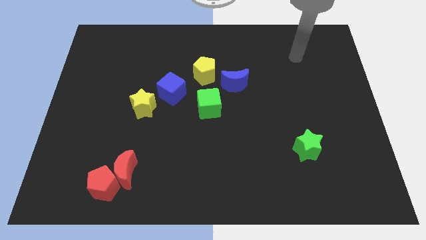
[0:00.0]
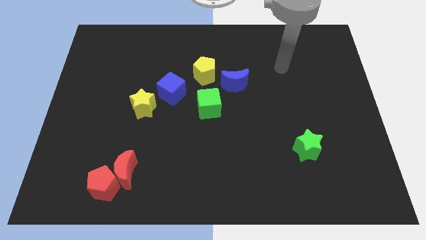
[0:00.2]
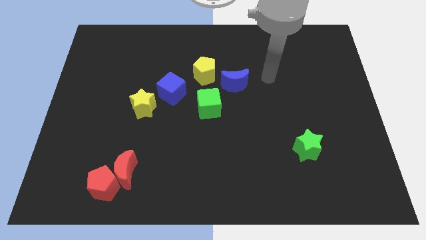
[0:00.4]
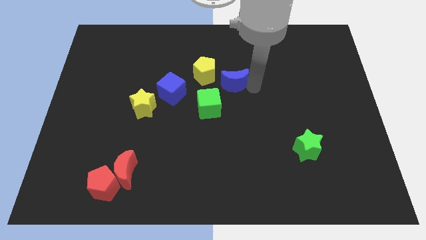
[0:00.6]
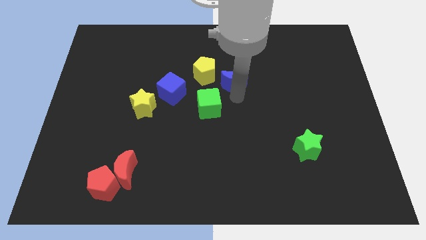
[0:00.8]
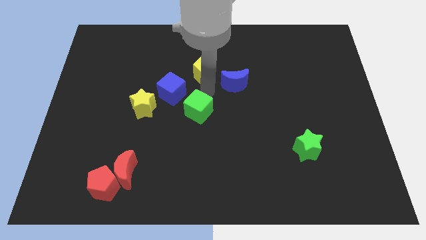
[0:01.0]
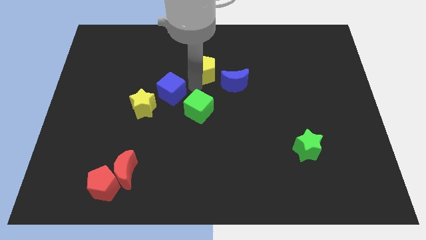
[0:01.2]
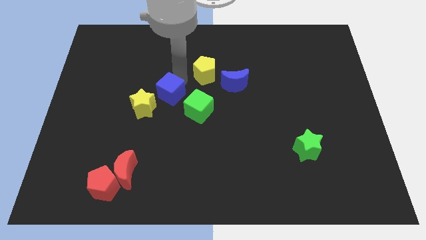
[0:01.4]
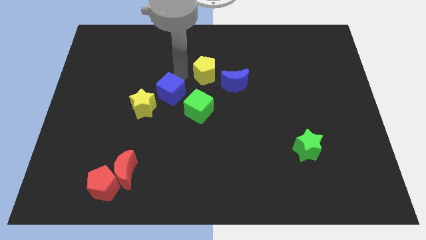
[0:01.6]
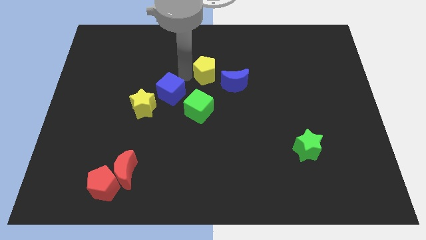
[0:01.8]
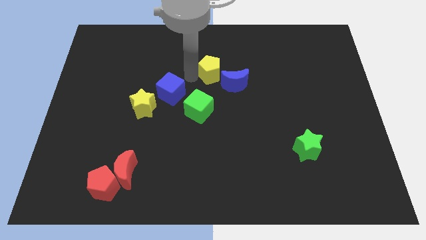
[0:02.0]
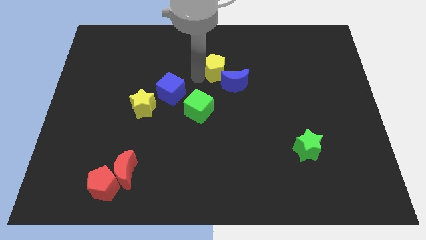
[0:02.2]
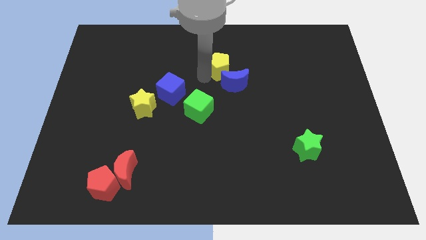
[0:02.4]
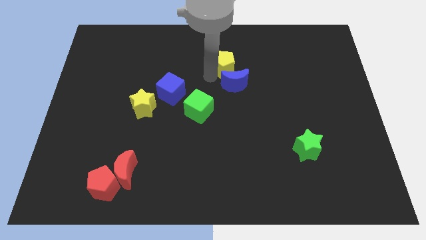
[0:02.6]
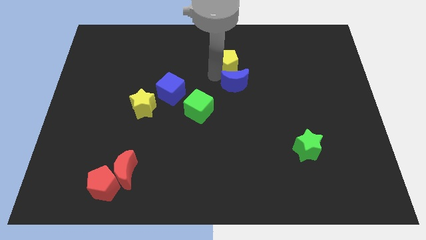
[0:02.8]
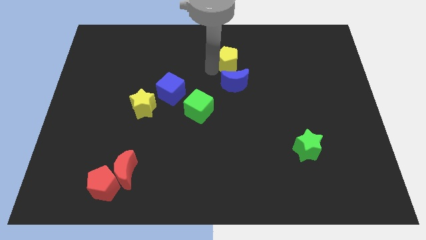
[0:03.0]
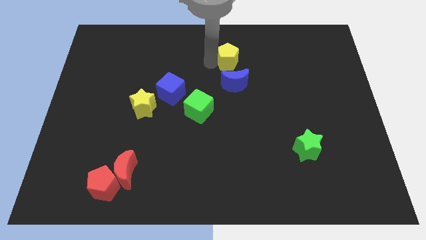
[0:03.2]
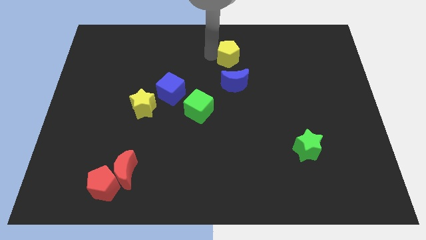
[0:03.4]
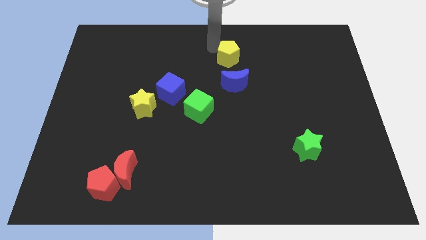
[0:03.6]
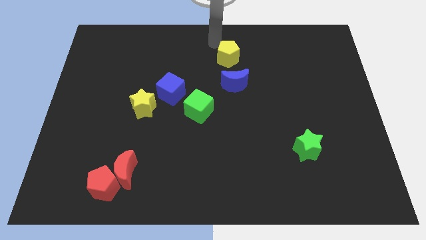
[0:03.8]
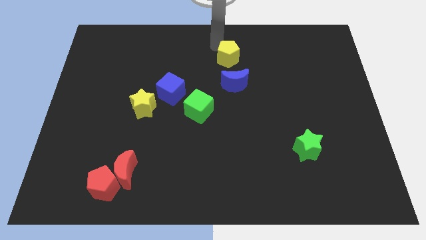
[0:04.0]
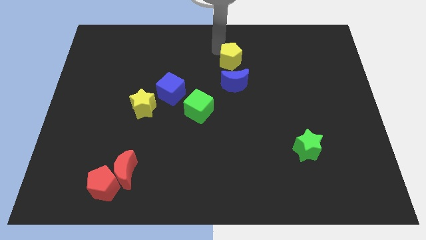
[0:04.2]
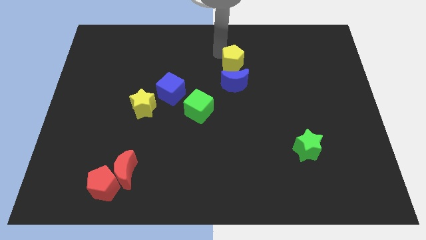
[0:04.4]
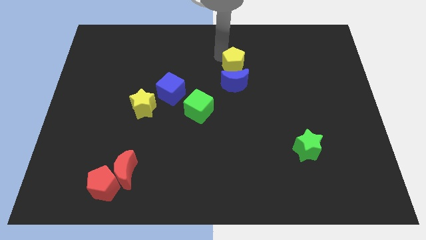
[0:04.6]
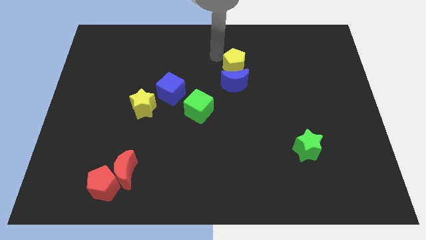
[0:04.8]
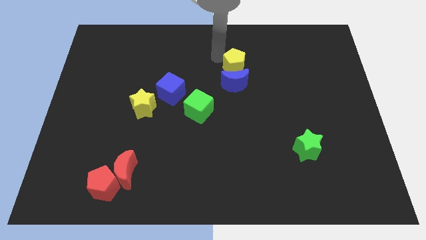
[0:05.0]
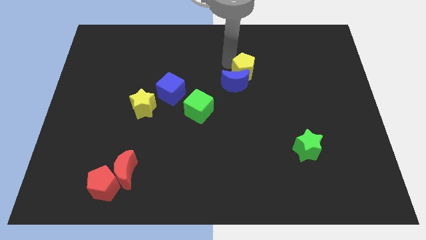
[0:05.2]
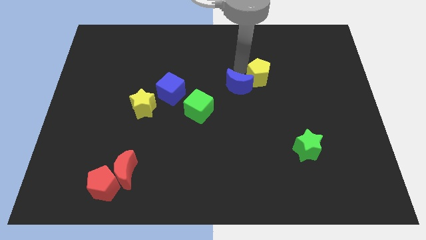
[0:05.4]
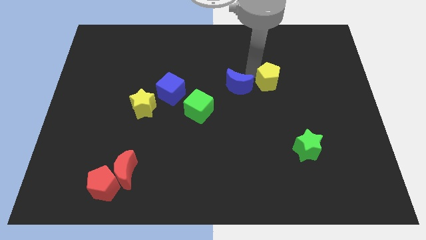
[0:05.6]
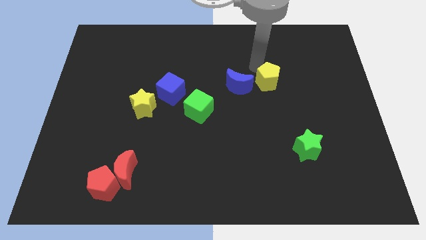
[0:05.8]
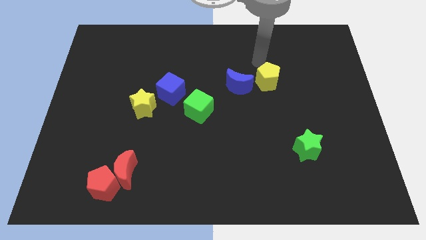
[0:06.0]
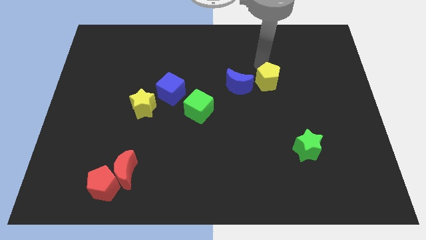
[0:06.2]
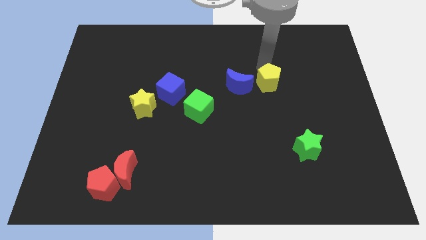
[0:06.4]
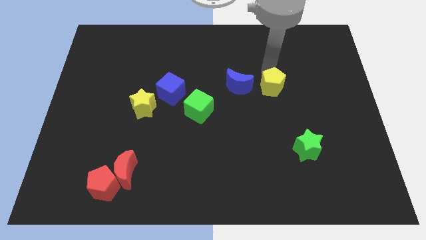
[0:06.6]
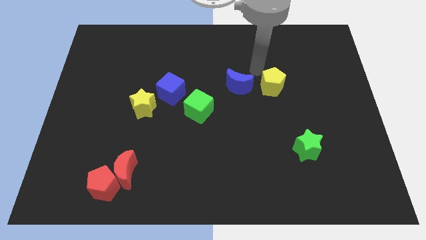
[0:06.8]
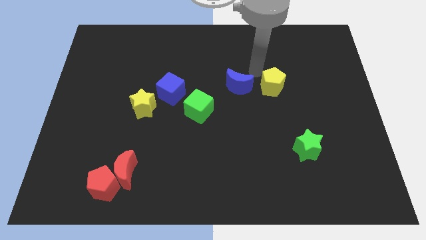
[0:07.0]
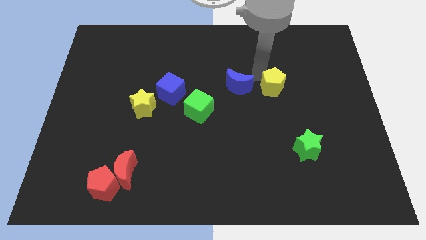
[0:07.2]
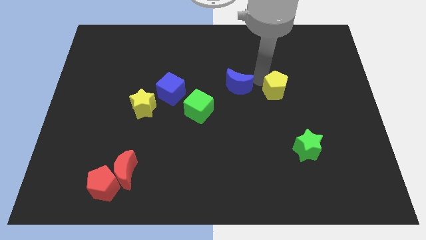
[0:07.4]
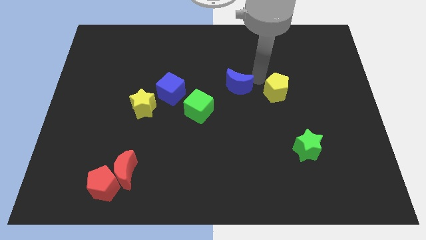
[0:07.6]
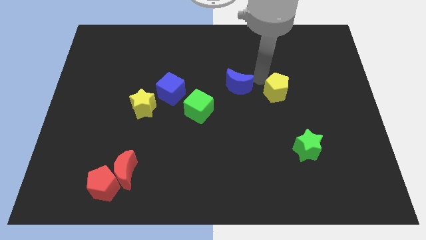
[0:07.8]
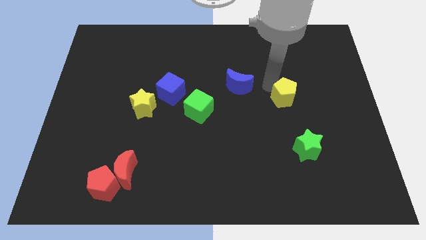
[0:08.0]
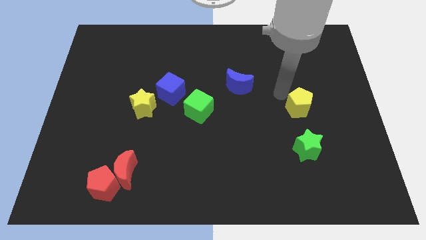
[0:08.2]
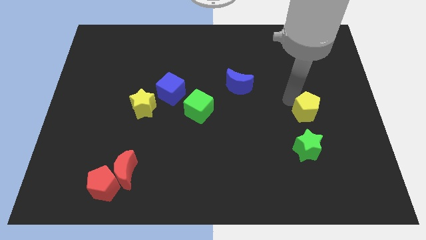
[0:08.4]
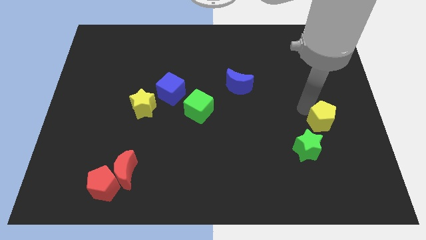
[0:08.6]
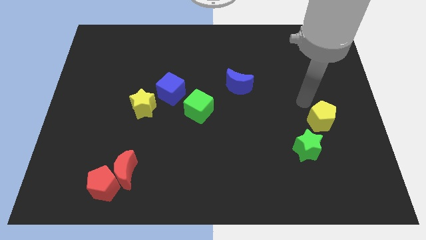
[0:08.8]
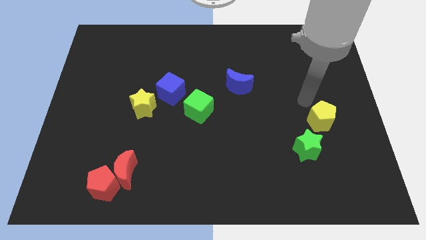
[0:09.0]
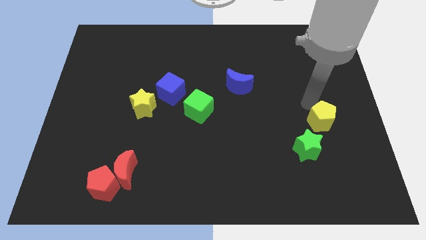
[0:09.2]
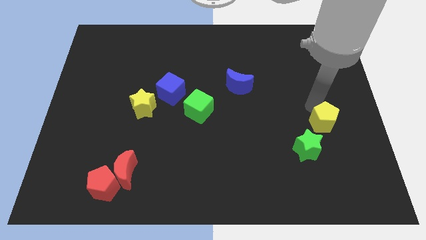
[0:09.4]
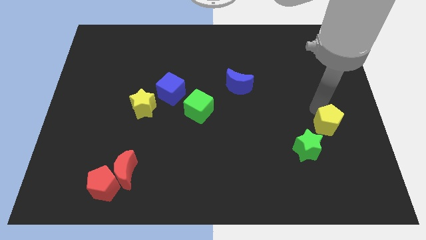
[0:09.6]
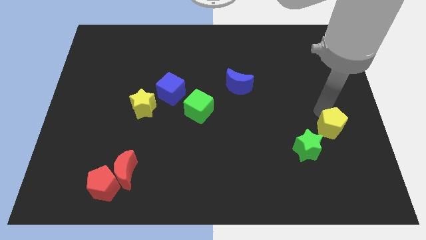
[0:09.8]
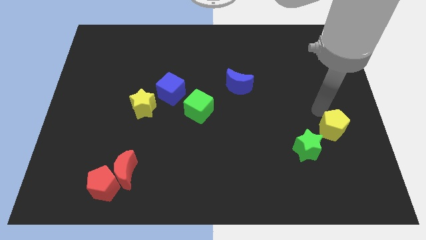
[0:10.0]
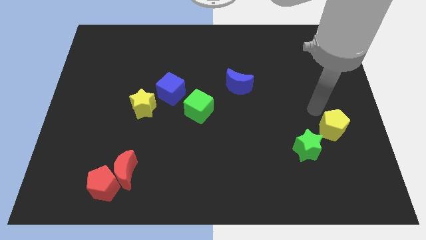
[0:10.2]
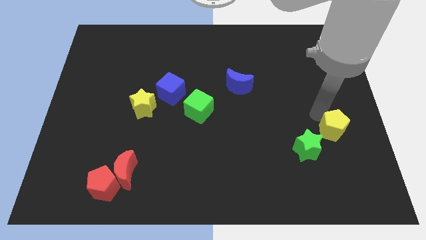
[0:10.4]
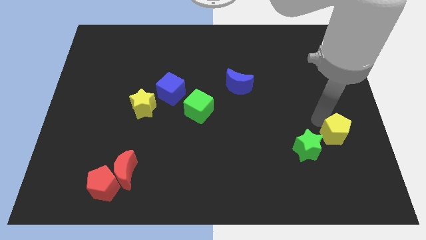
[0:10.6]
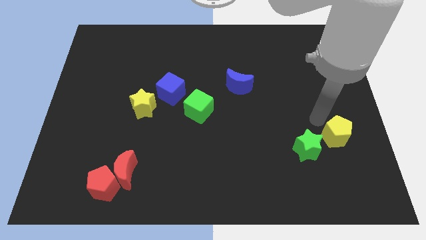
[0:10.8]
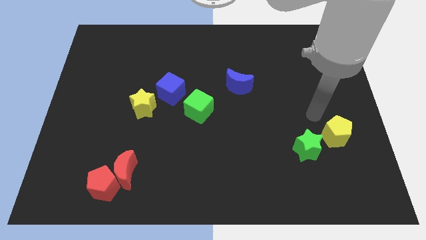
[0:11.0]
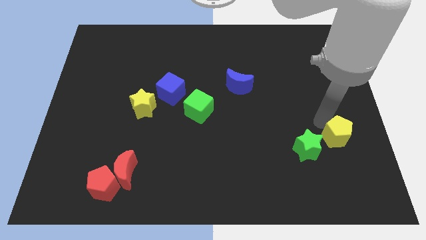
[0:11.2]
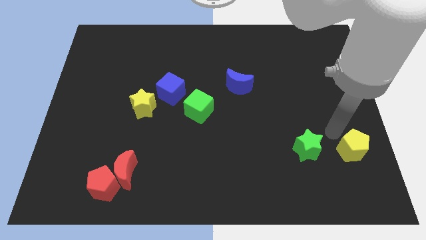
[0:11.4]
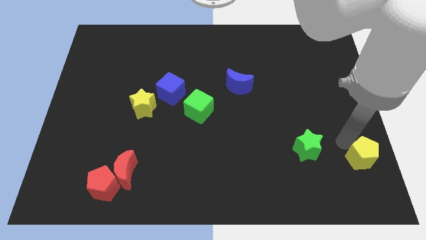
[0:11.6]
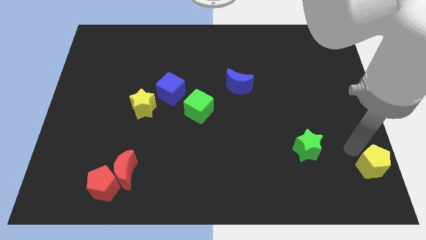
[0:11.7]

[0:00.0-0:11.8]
move the yellow pentagon to the bottom right corner

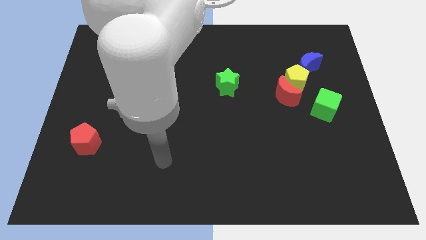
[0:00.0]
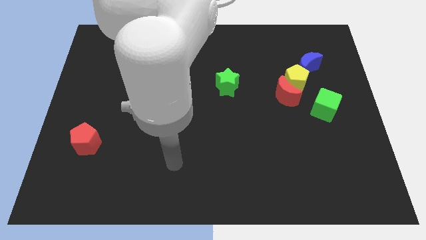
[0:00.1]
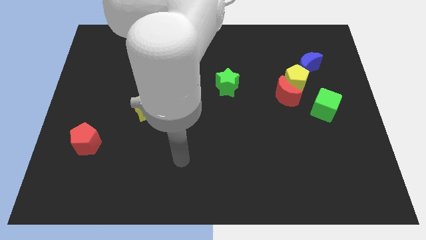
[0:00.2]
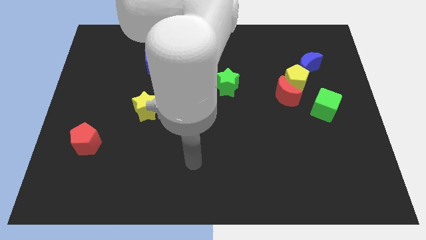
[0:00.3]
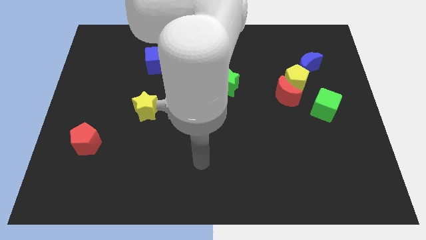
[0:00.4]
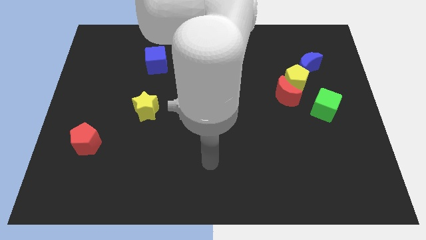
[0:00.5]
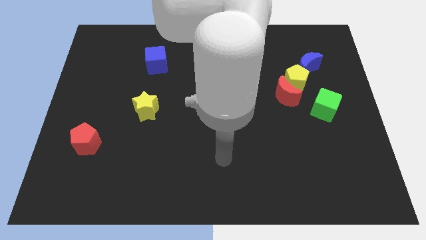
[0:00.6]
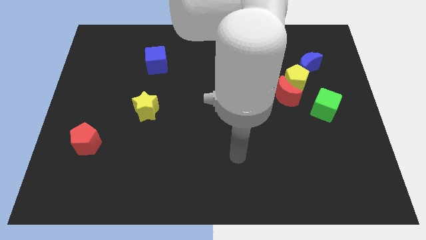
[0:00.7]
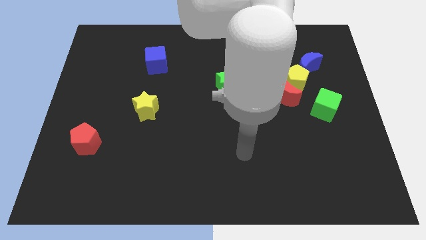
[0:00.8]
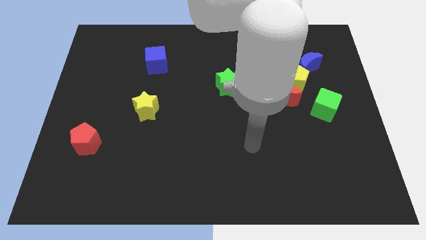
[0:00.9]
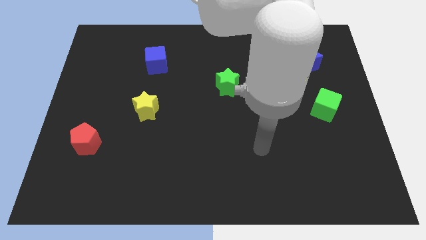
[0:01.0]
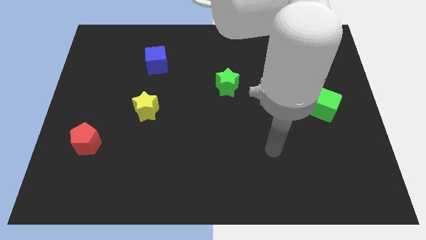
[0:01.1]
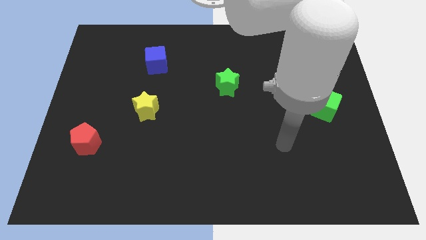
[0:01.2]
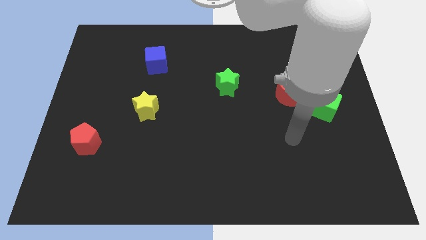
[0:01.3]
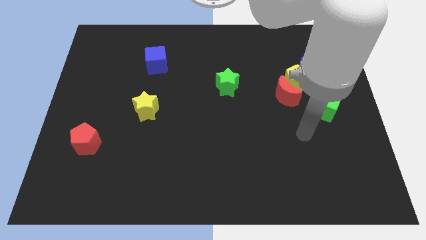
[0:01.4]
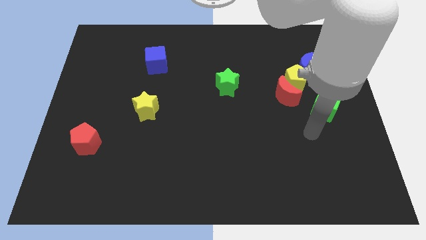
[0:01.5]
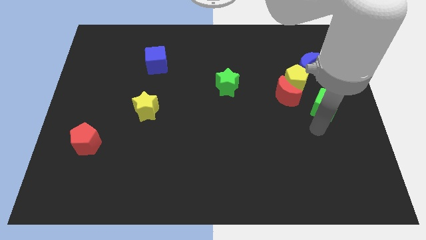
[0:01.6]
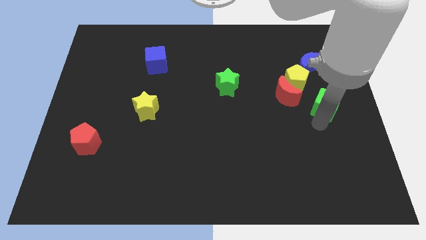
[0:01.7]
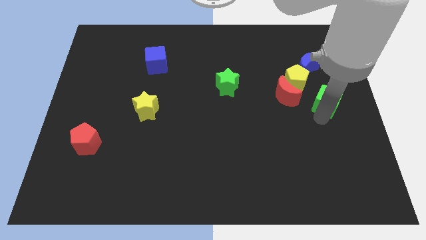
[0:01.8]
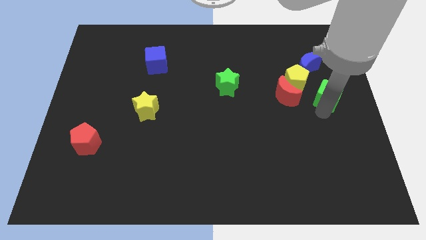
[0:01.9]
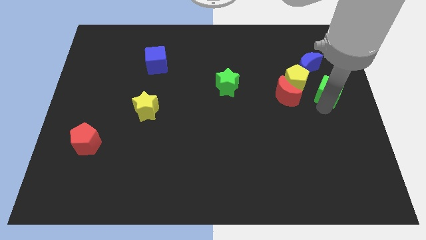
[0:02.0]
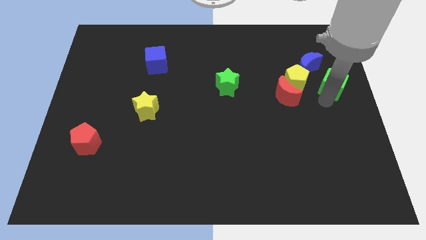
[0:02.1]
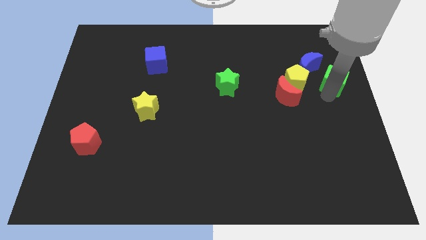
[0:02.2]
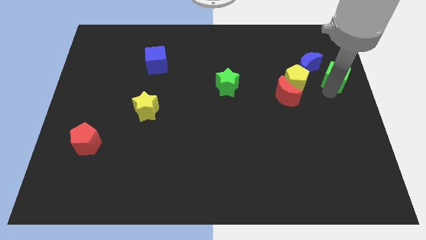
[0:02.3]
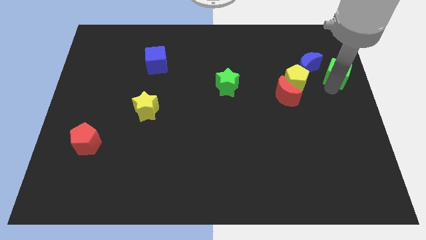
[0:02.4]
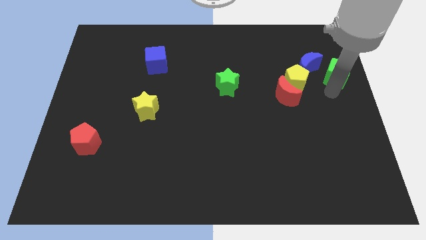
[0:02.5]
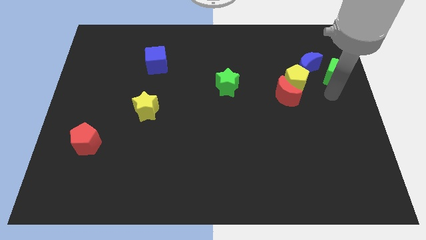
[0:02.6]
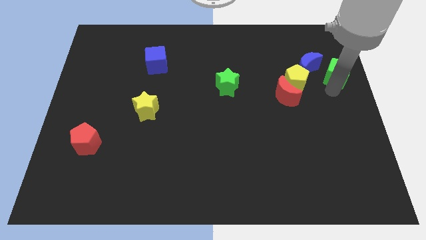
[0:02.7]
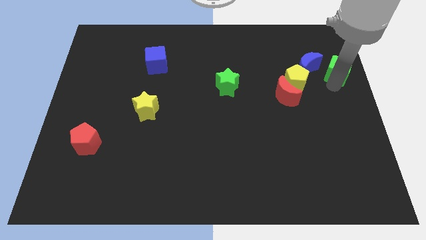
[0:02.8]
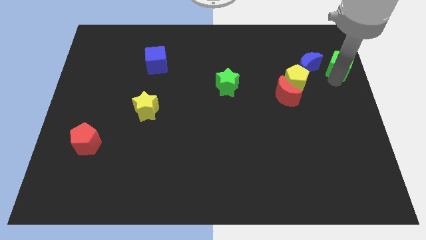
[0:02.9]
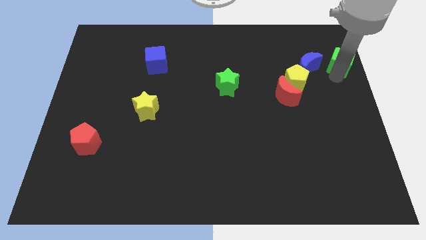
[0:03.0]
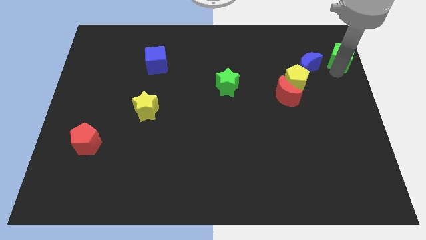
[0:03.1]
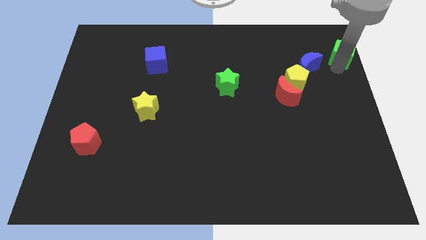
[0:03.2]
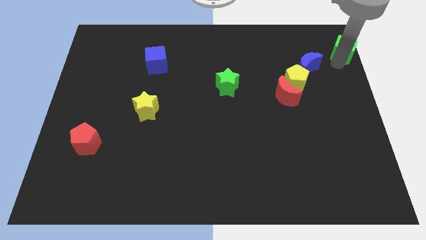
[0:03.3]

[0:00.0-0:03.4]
put the green cube to the upper right corner
